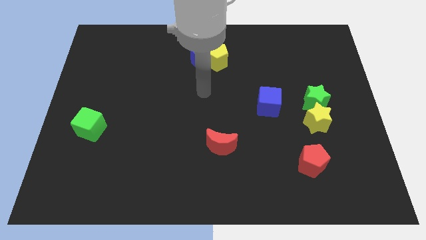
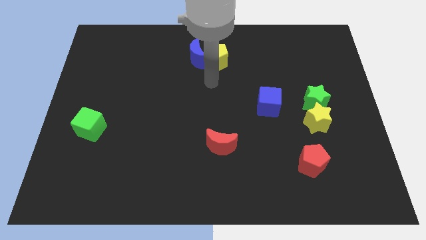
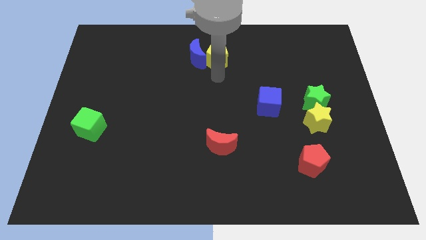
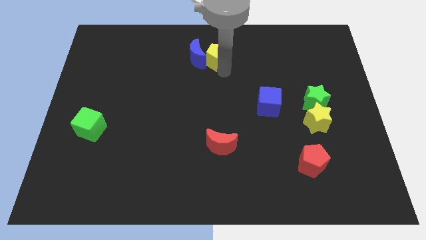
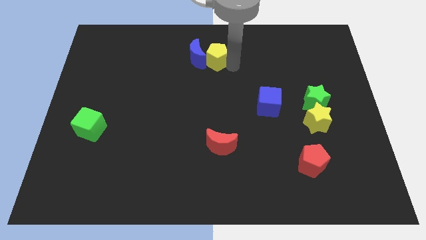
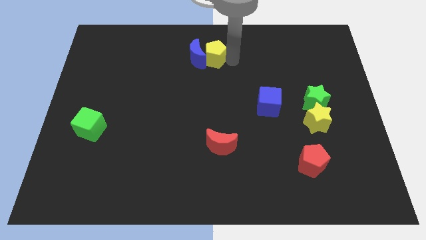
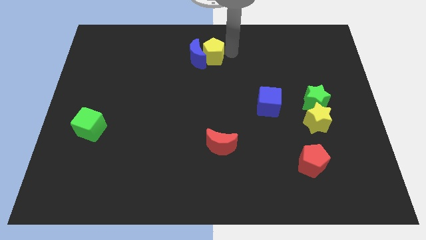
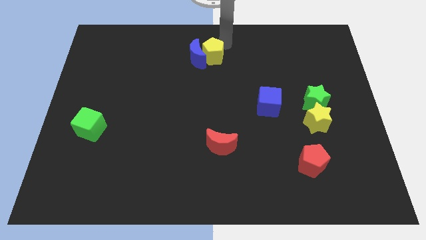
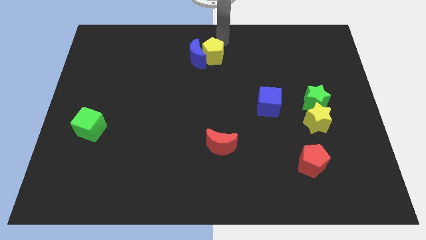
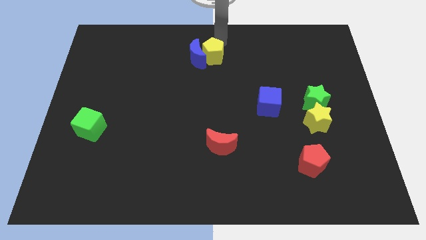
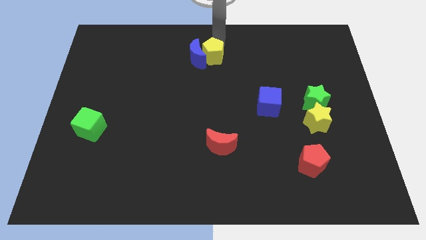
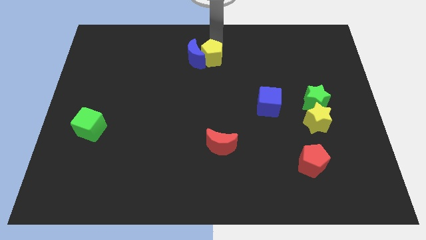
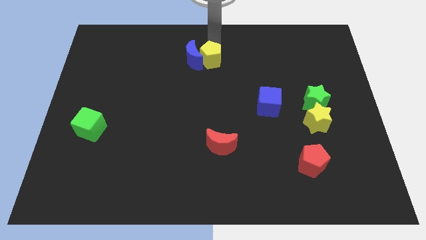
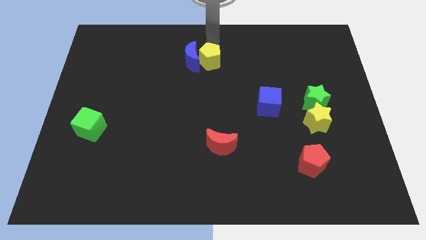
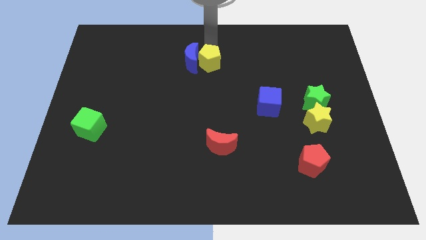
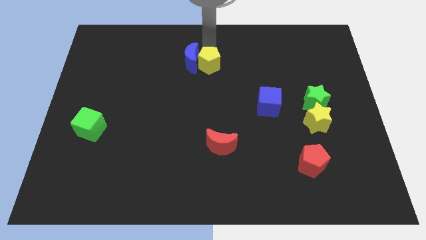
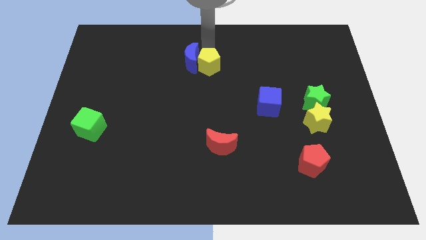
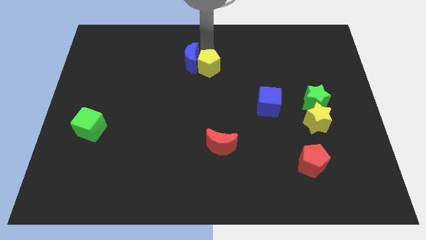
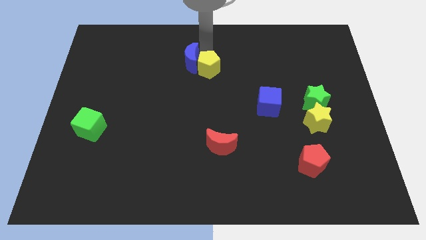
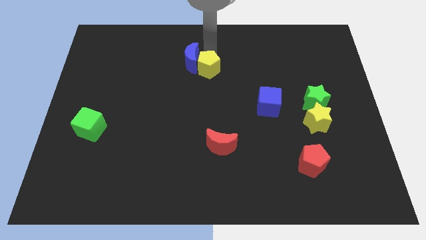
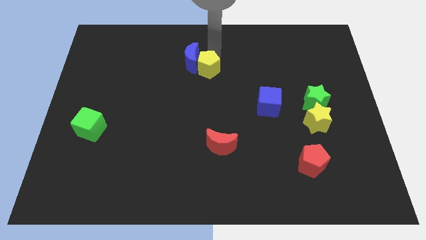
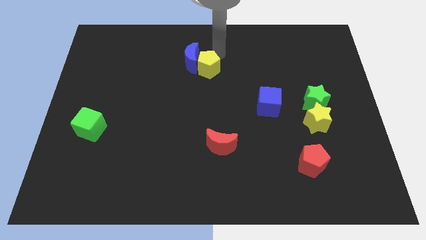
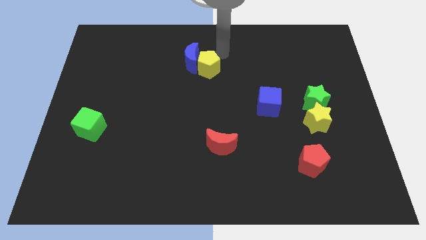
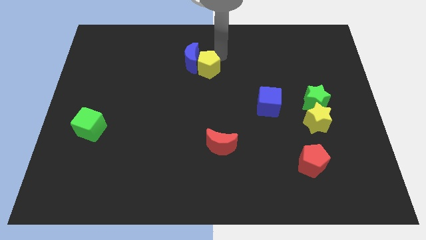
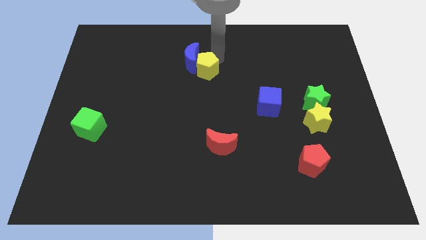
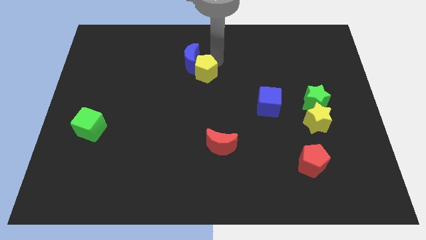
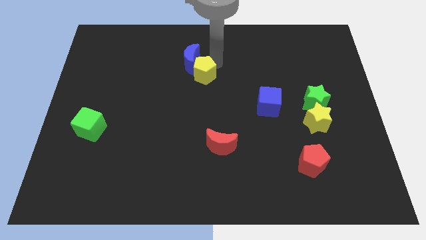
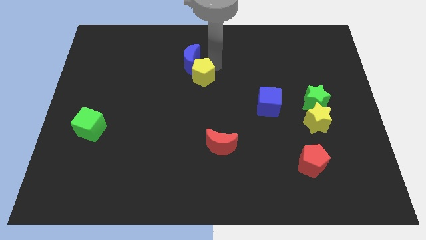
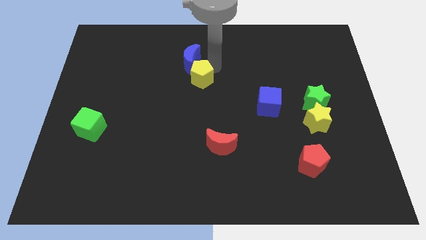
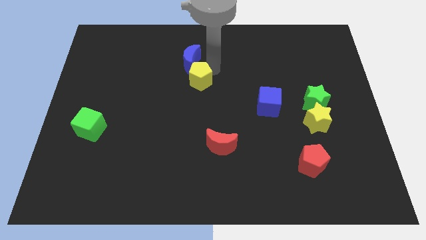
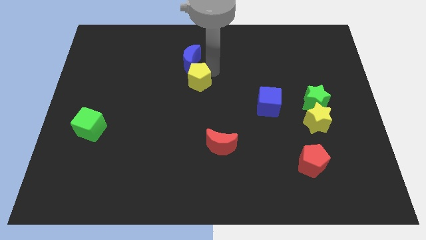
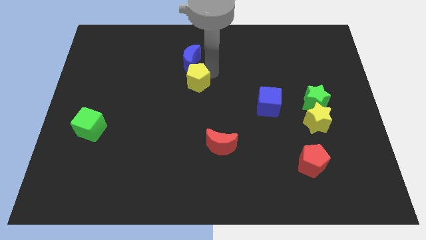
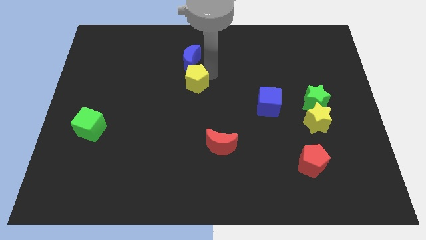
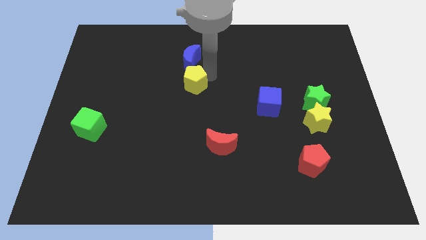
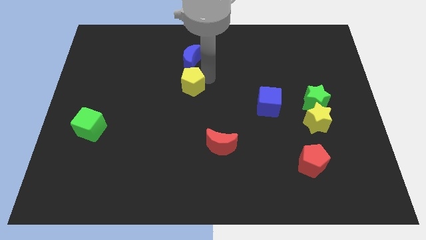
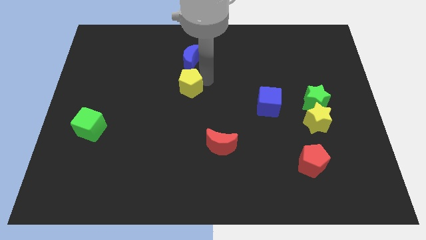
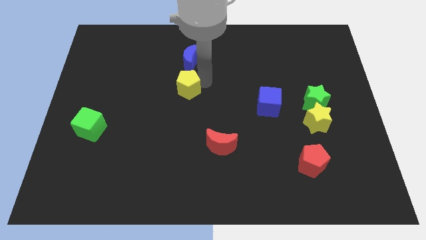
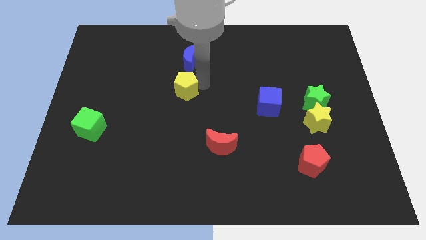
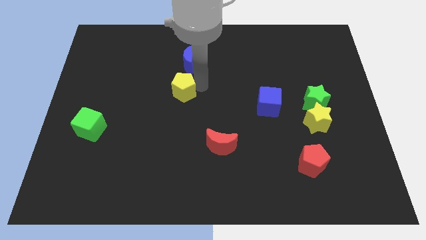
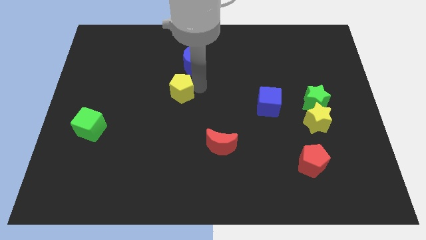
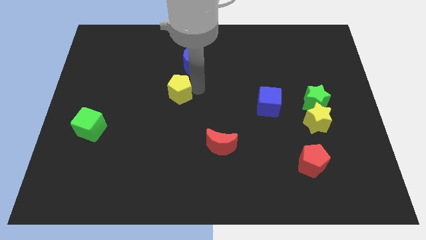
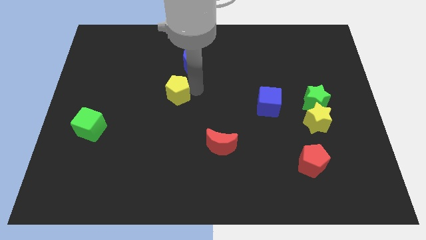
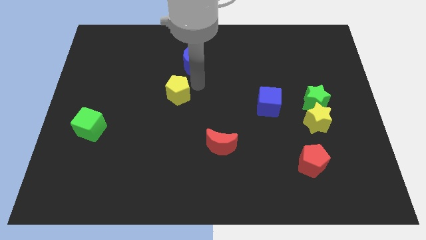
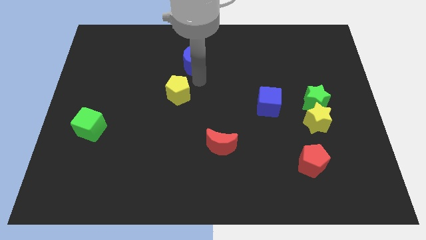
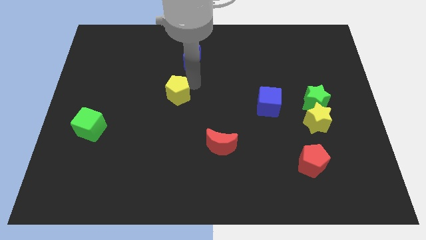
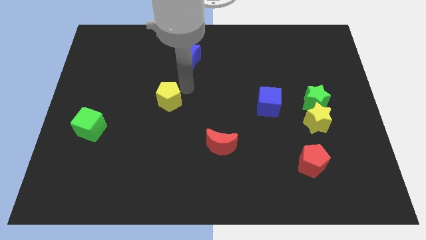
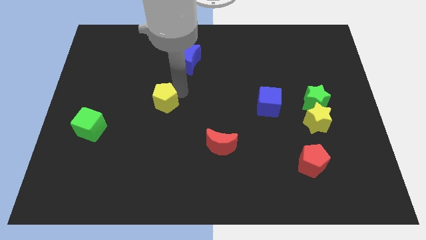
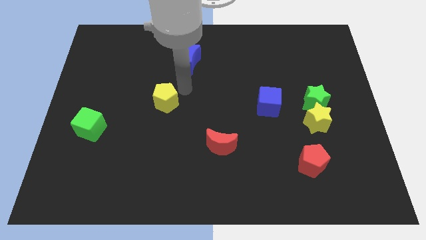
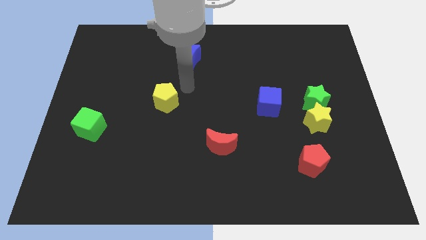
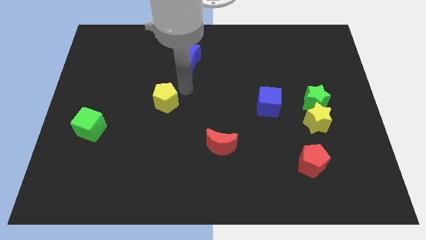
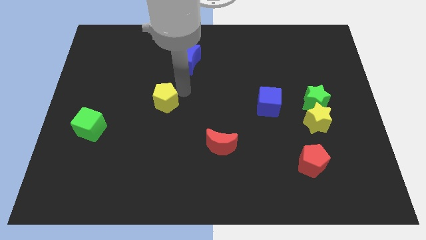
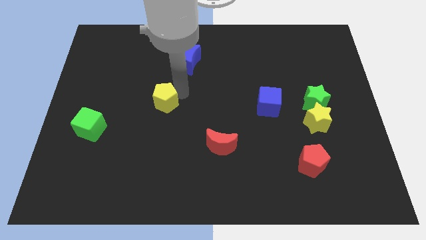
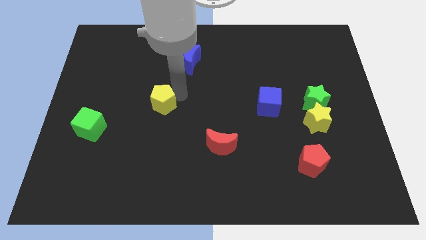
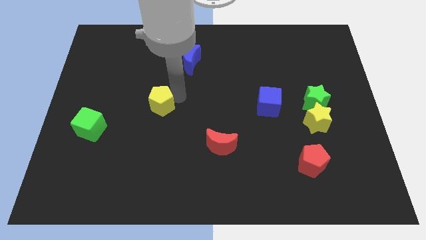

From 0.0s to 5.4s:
push the yellow pentagon downwards and then to the left

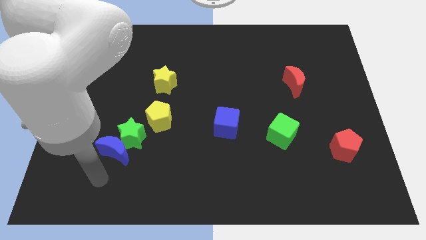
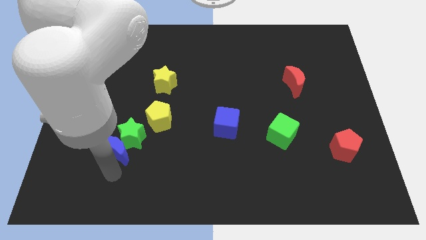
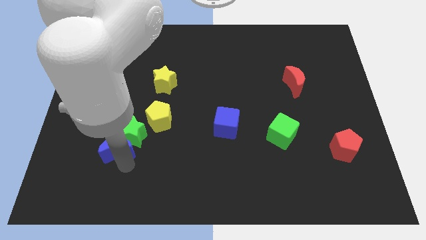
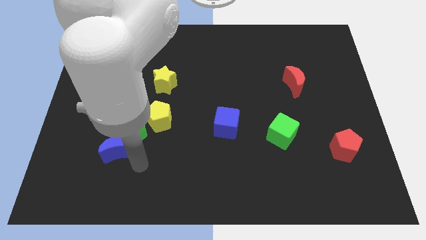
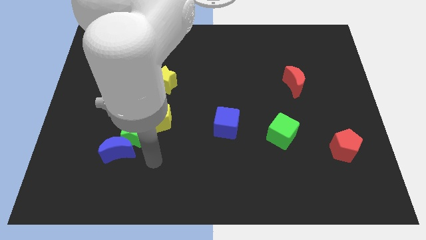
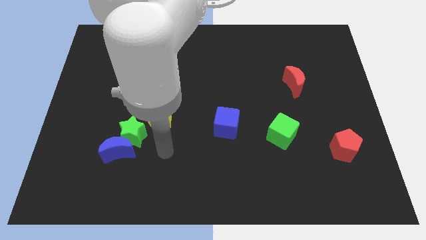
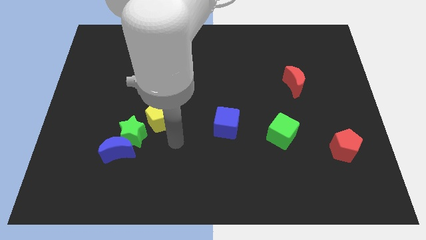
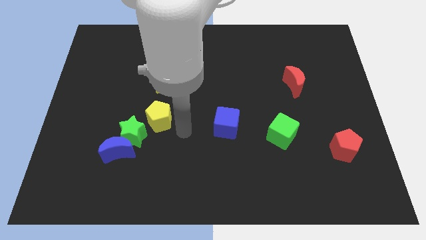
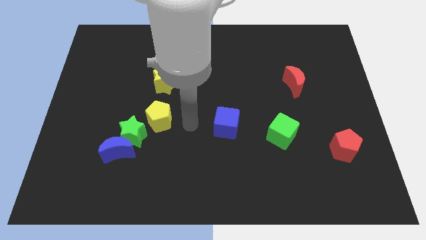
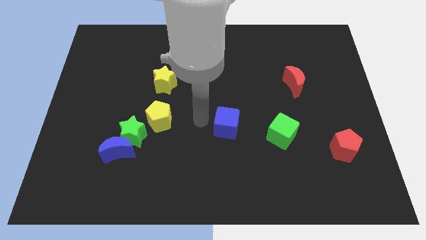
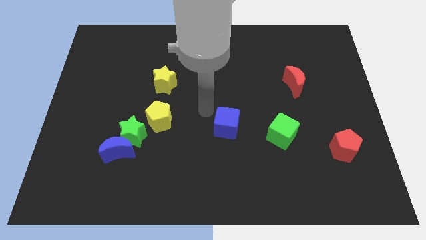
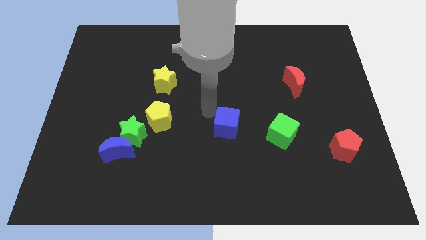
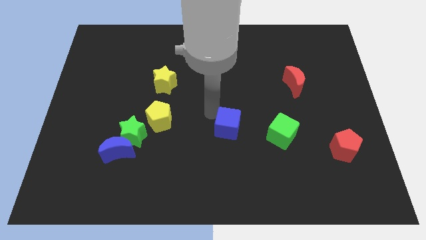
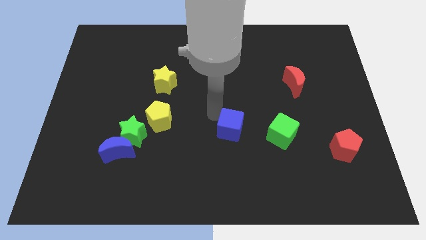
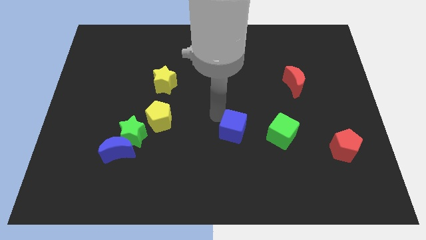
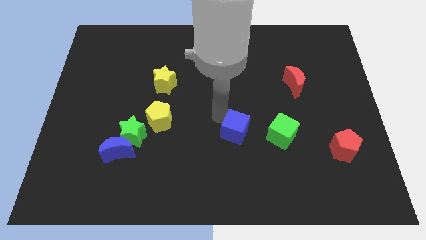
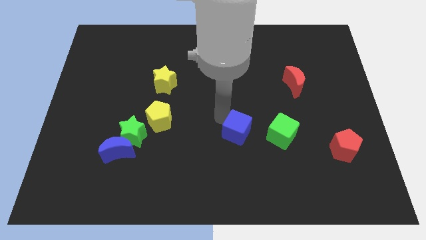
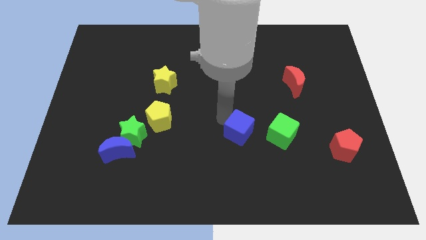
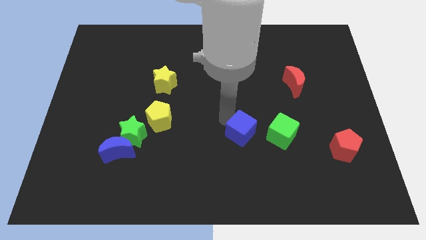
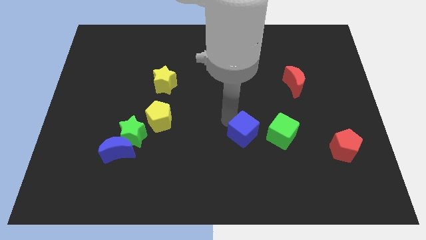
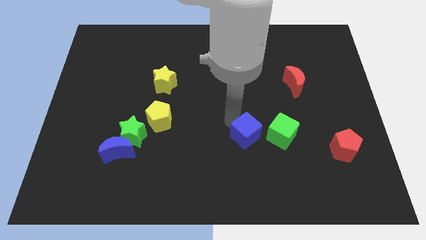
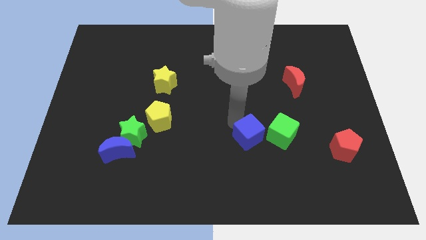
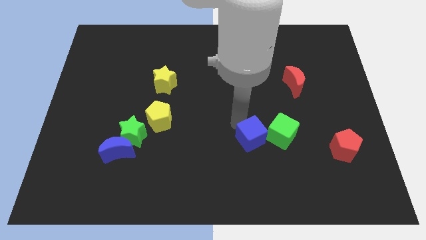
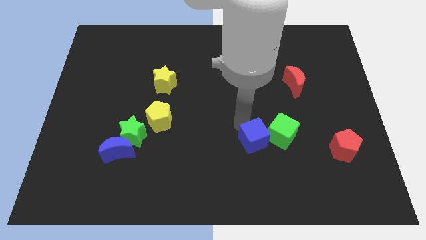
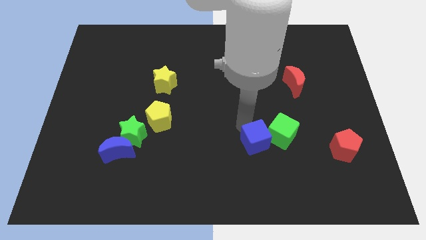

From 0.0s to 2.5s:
push the blue cube a little diagonally downwards and to the right

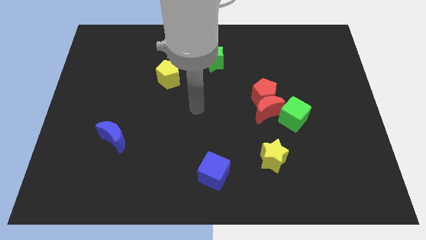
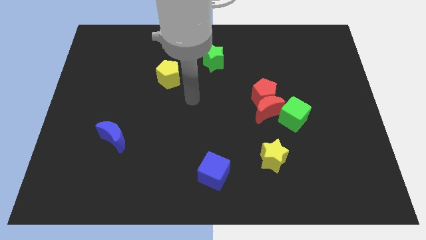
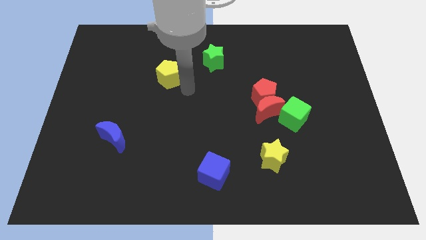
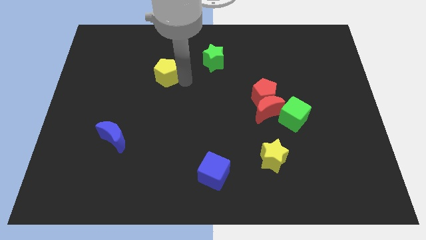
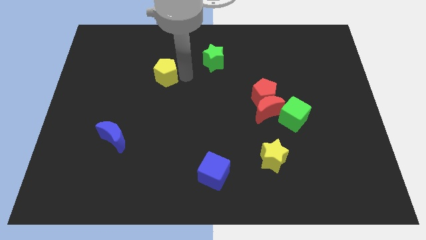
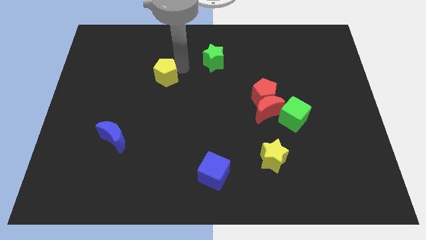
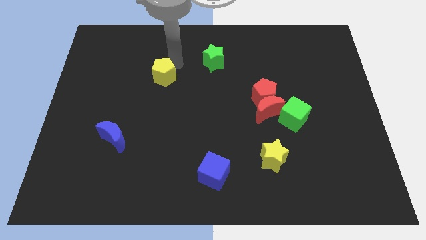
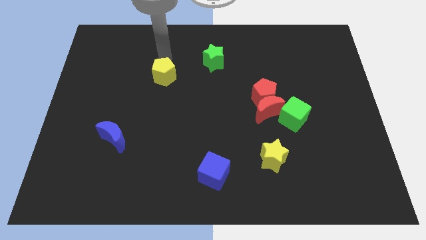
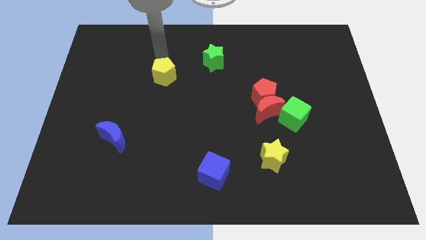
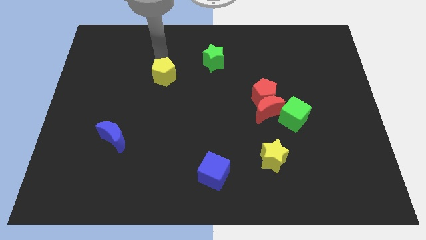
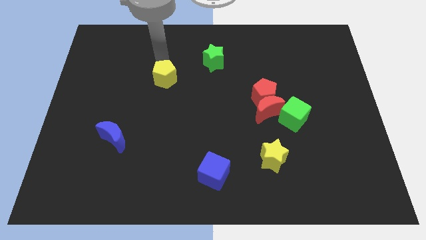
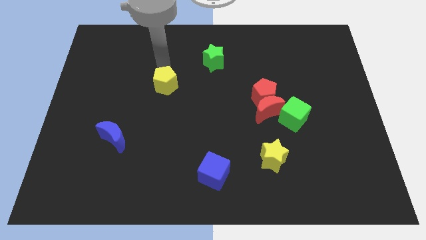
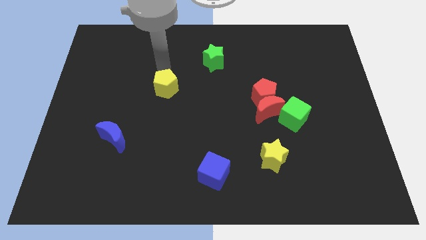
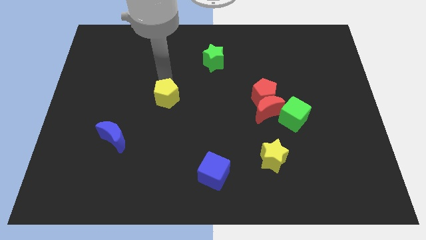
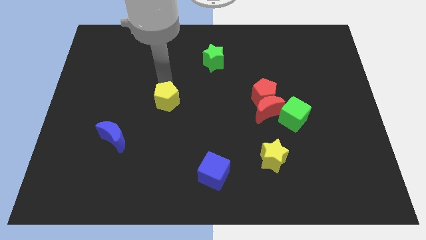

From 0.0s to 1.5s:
push the yellow pentagon down slightly
